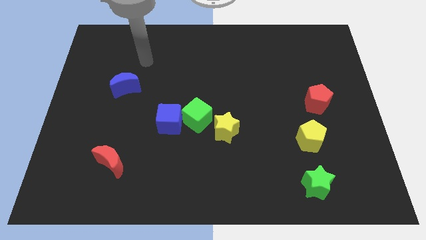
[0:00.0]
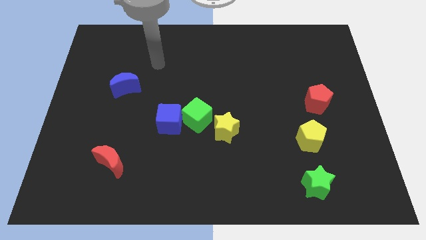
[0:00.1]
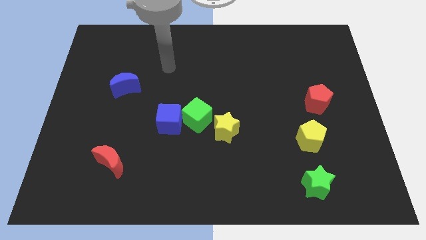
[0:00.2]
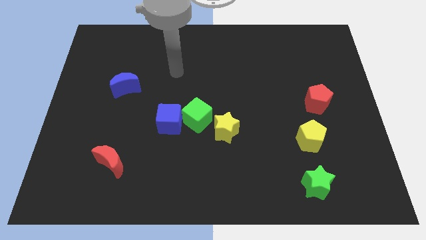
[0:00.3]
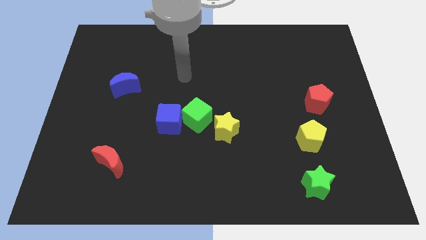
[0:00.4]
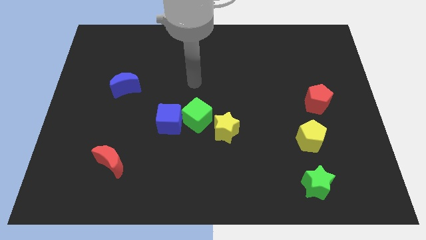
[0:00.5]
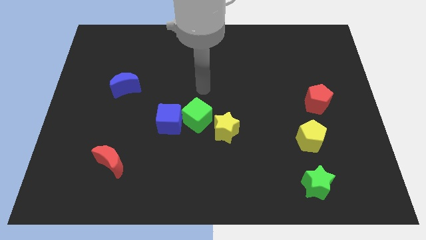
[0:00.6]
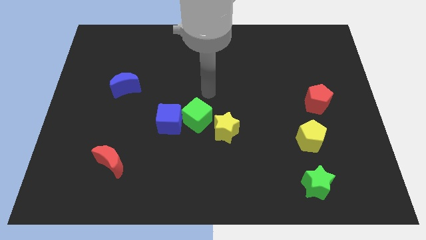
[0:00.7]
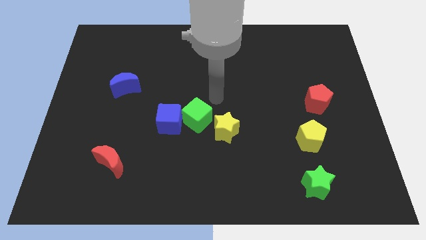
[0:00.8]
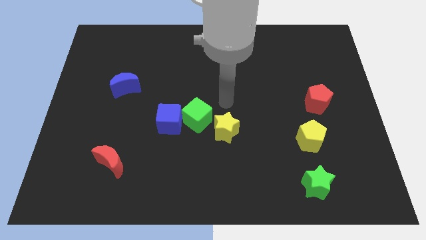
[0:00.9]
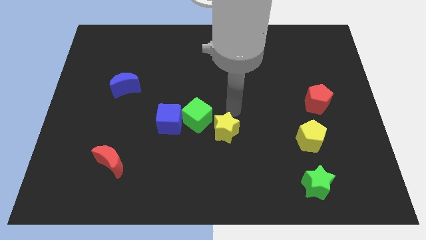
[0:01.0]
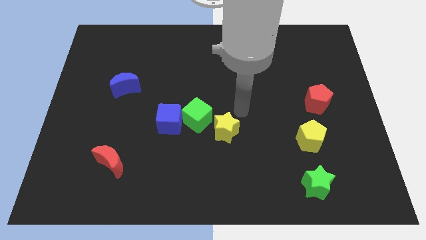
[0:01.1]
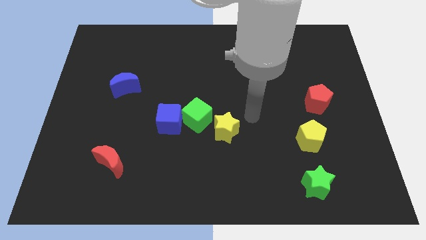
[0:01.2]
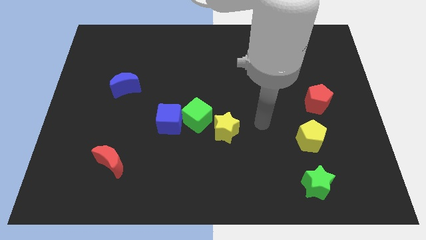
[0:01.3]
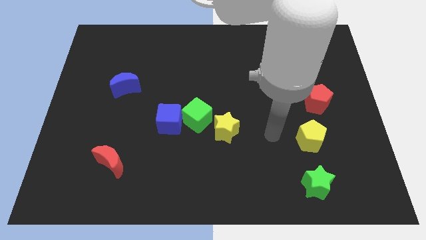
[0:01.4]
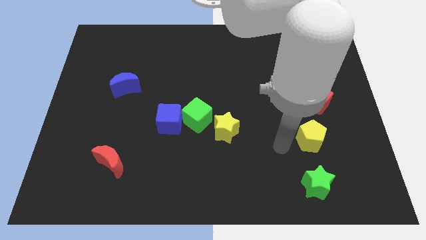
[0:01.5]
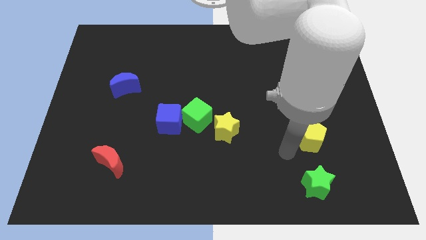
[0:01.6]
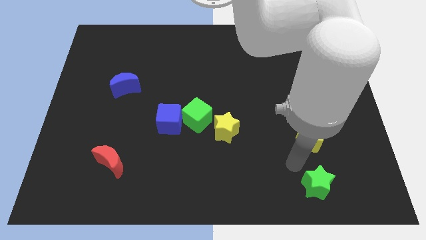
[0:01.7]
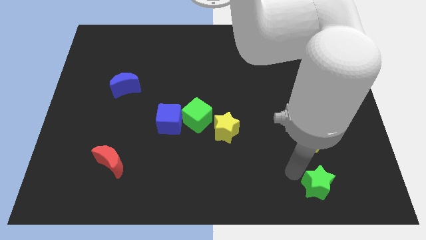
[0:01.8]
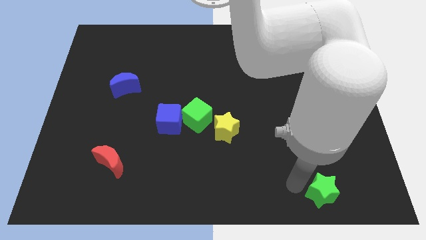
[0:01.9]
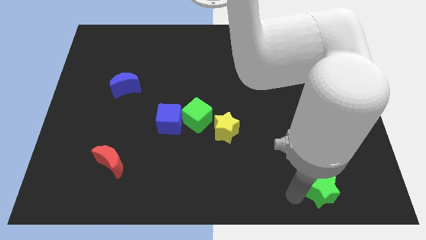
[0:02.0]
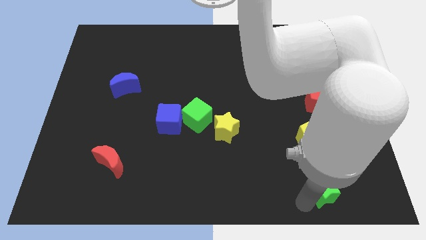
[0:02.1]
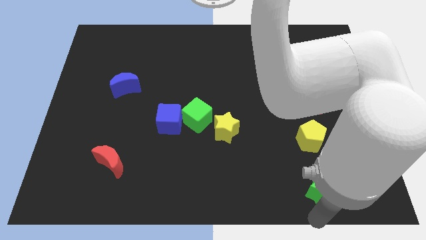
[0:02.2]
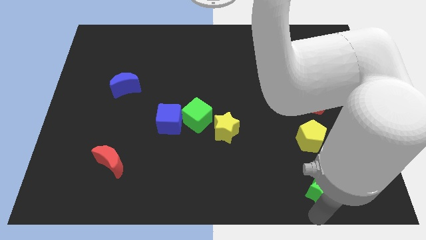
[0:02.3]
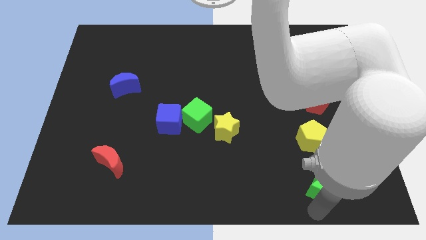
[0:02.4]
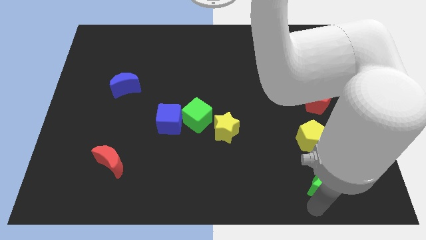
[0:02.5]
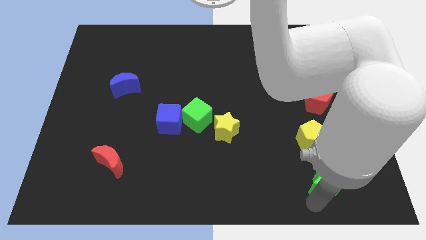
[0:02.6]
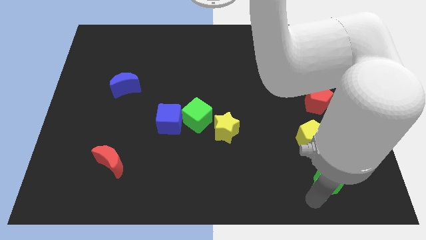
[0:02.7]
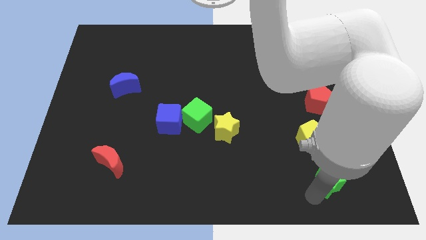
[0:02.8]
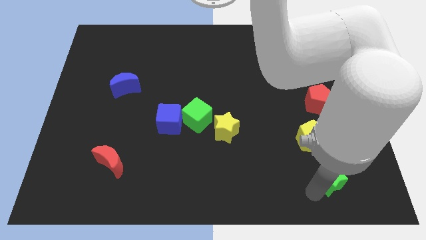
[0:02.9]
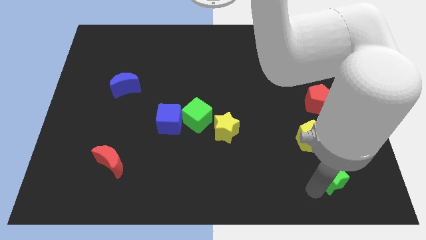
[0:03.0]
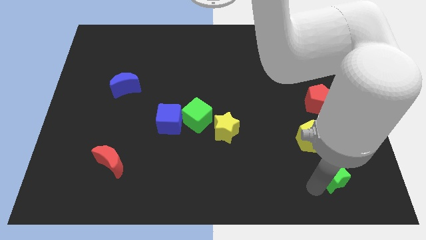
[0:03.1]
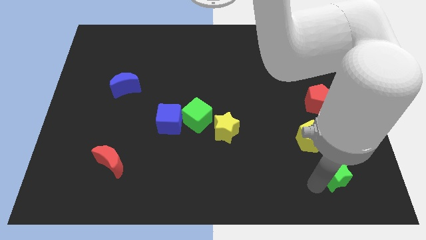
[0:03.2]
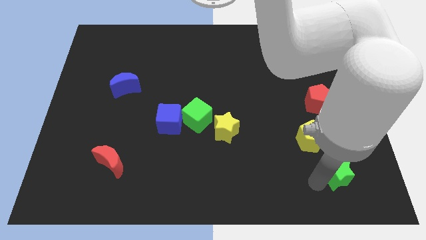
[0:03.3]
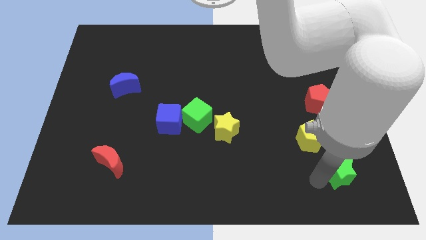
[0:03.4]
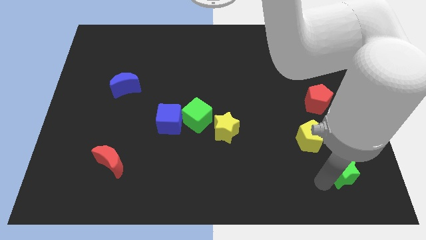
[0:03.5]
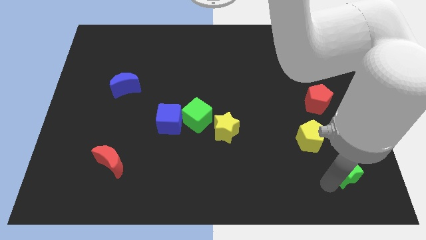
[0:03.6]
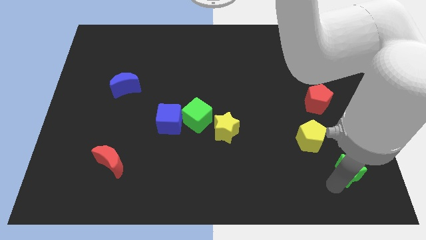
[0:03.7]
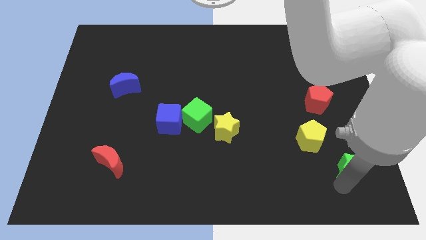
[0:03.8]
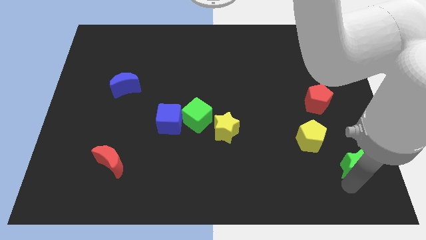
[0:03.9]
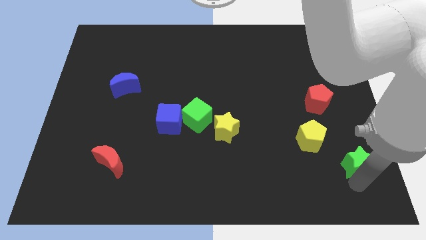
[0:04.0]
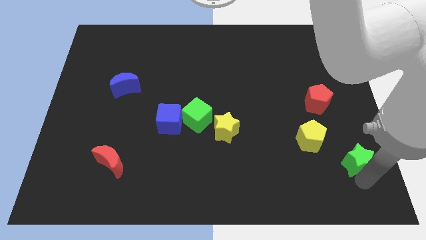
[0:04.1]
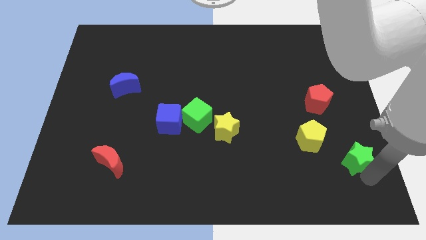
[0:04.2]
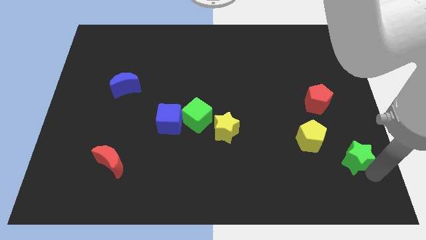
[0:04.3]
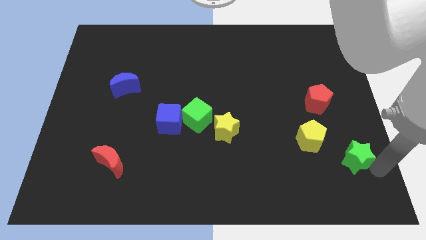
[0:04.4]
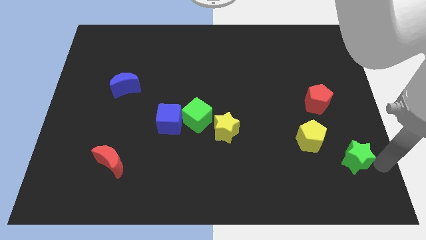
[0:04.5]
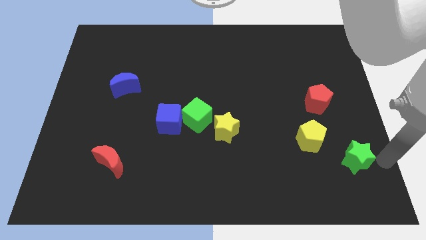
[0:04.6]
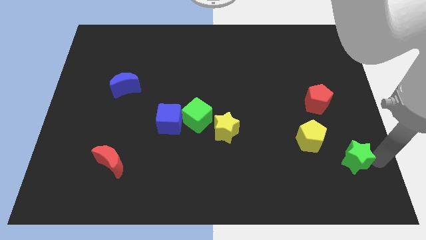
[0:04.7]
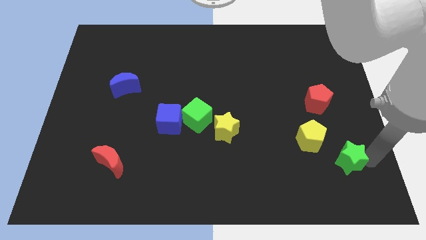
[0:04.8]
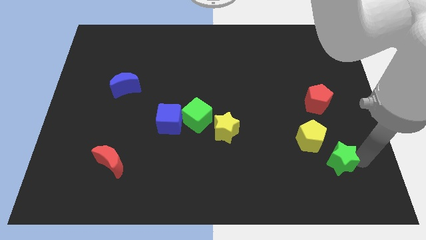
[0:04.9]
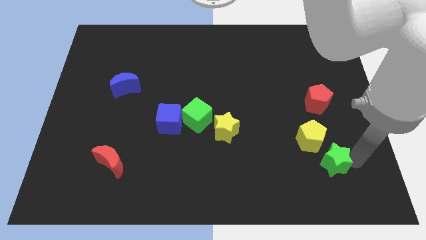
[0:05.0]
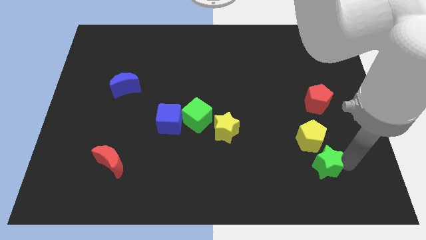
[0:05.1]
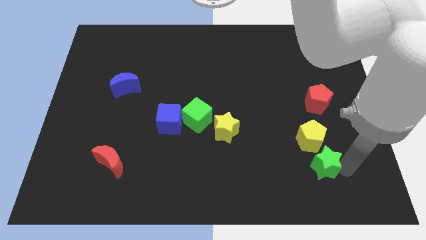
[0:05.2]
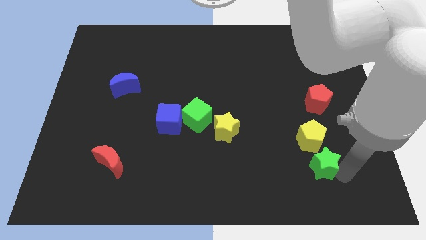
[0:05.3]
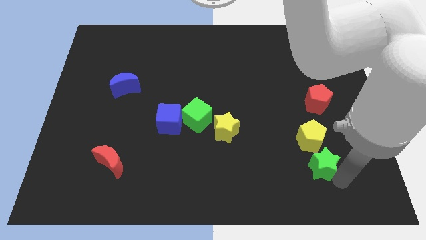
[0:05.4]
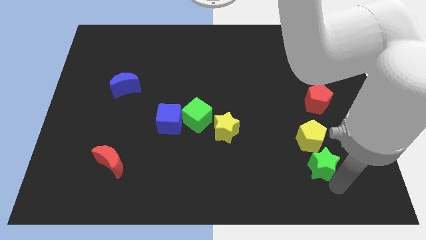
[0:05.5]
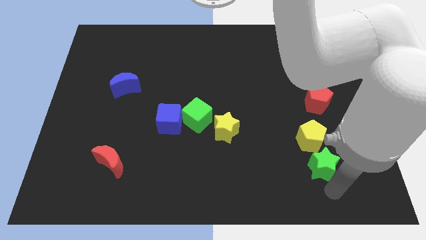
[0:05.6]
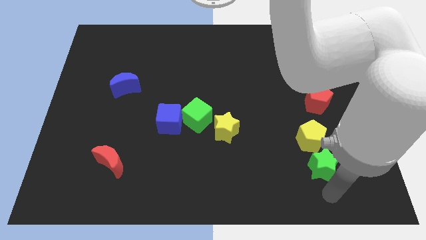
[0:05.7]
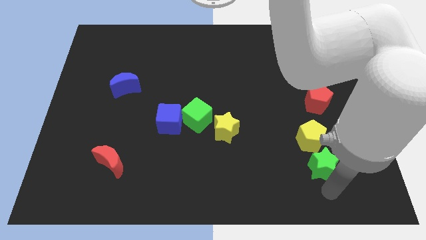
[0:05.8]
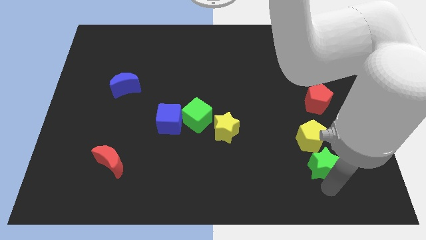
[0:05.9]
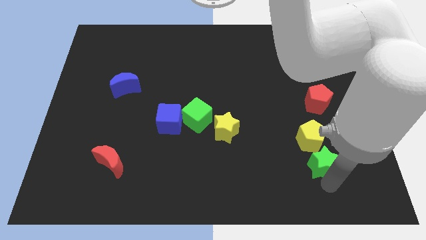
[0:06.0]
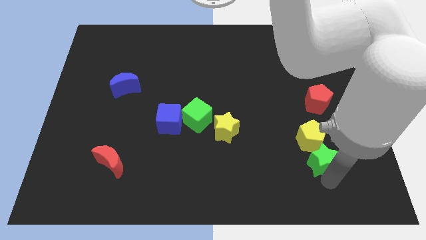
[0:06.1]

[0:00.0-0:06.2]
slide the green star next to the yellow pentagon

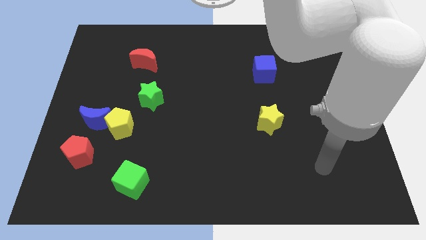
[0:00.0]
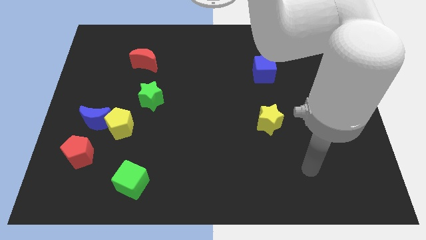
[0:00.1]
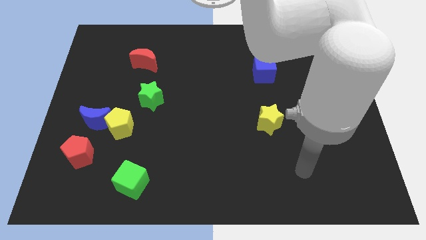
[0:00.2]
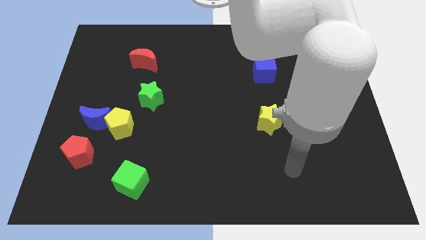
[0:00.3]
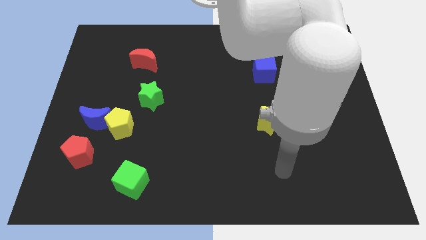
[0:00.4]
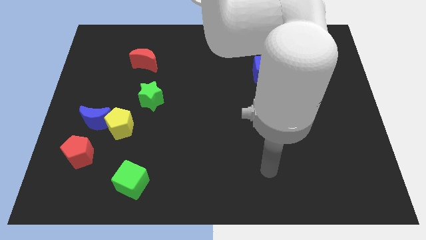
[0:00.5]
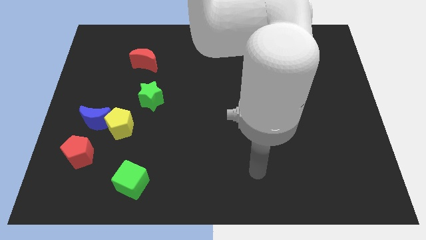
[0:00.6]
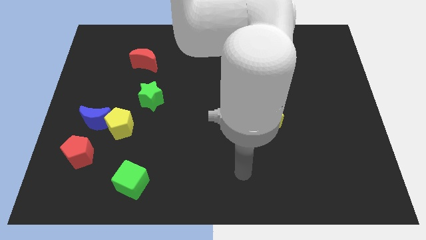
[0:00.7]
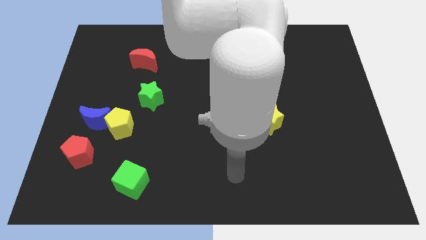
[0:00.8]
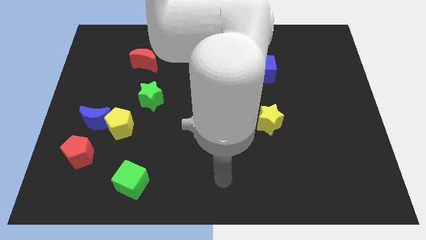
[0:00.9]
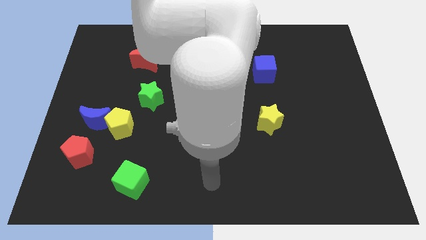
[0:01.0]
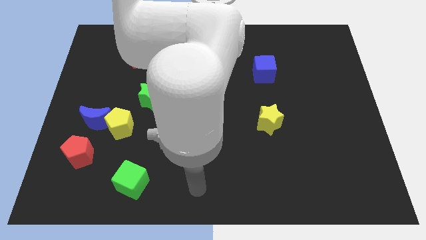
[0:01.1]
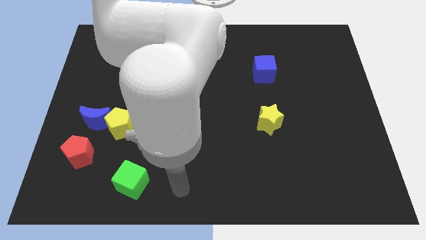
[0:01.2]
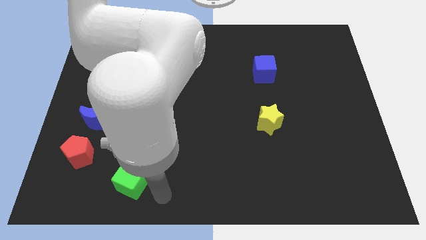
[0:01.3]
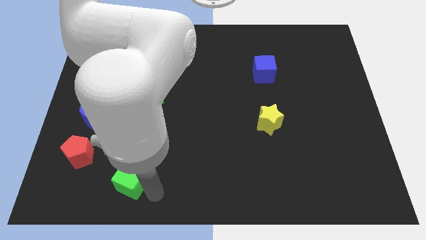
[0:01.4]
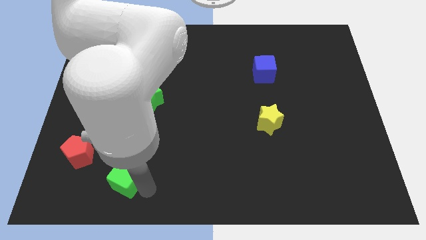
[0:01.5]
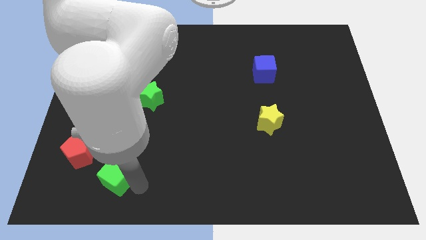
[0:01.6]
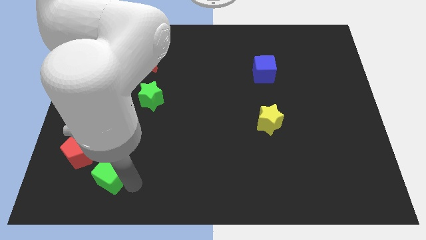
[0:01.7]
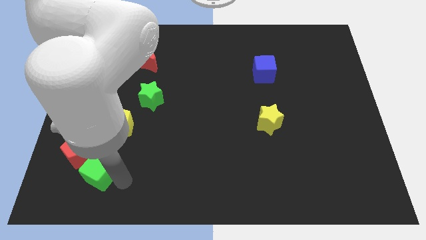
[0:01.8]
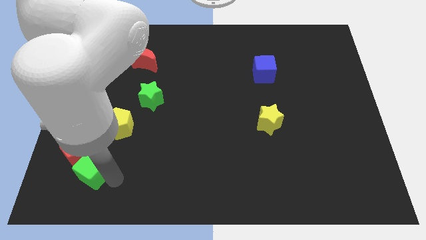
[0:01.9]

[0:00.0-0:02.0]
put the green cube next to the red pentagon
